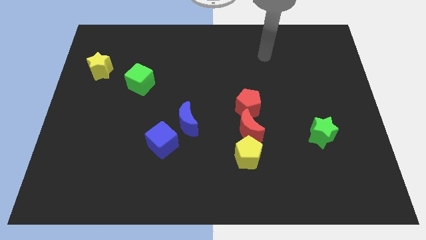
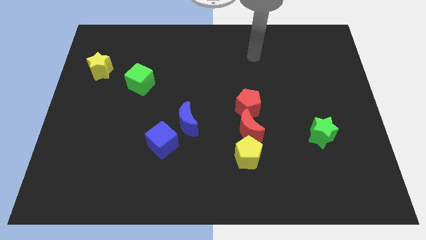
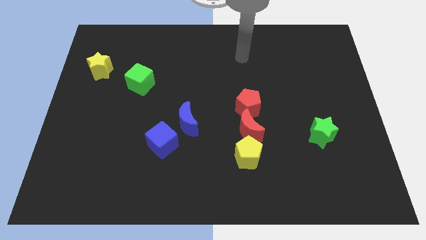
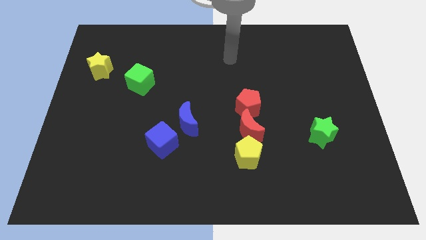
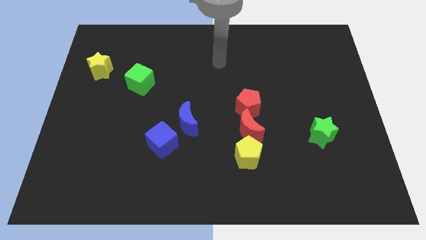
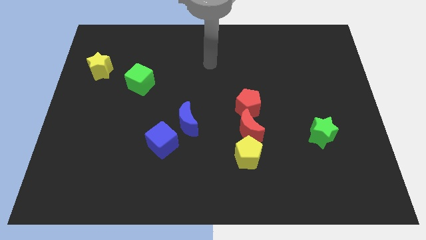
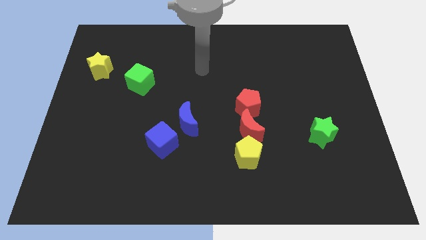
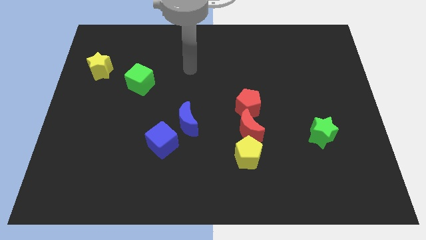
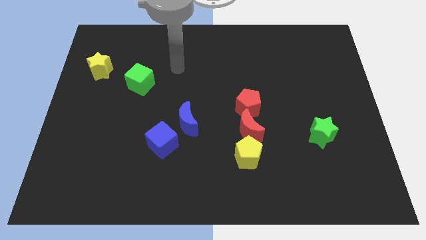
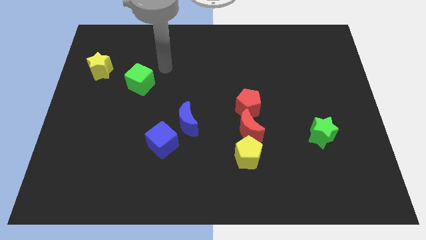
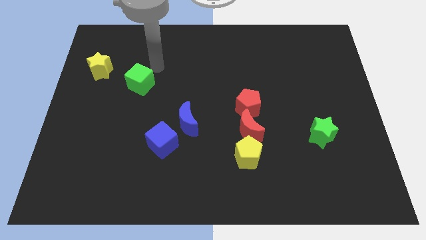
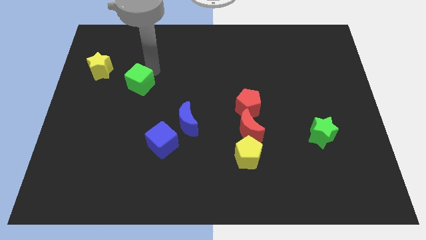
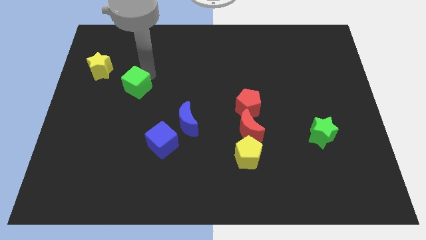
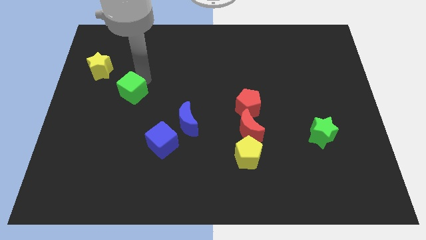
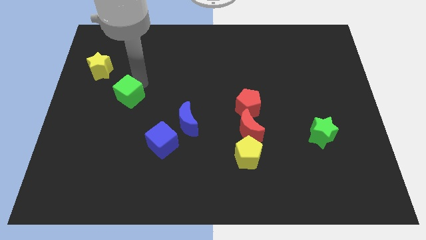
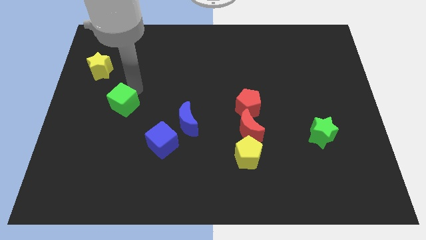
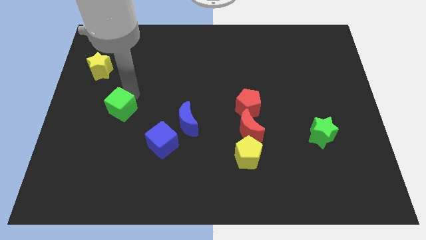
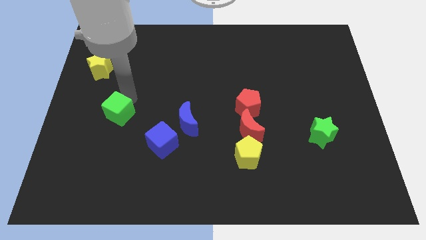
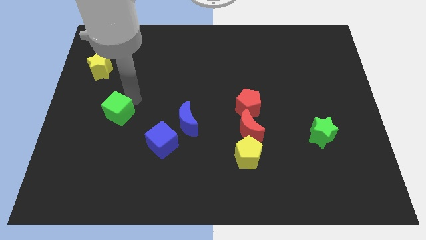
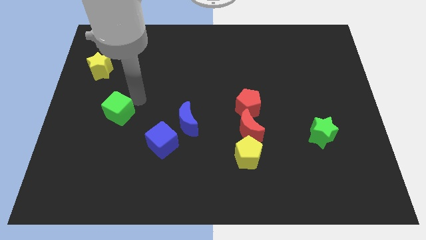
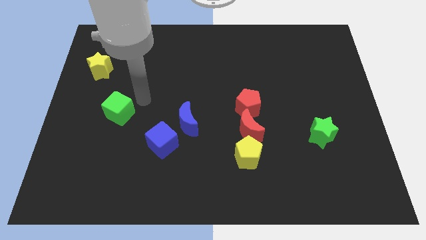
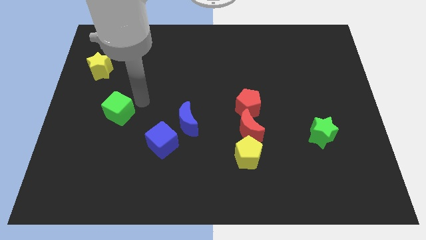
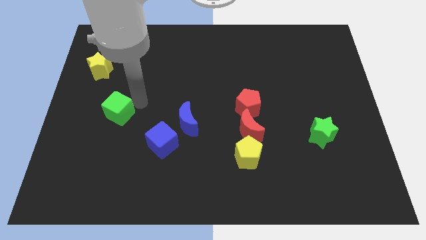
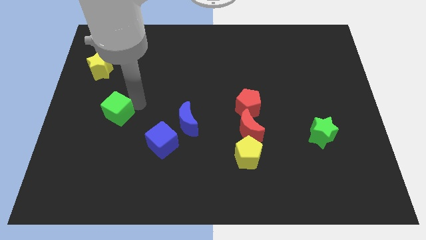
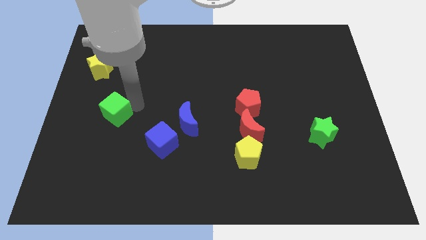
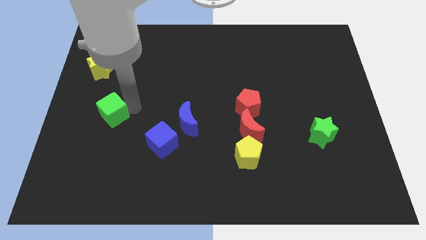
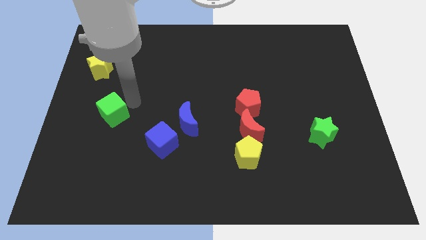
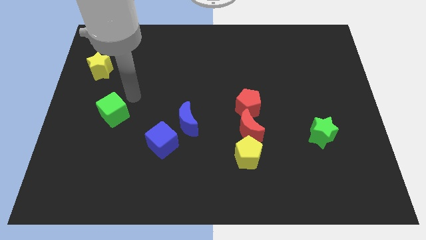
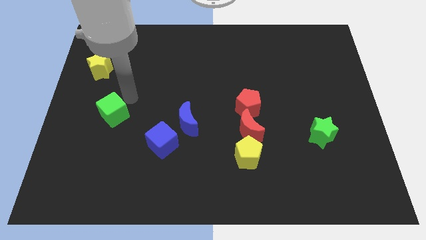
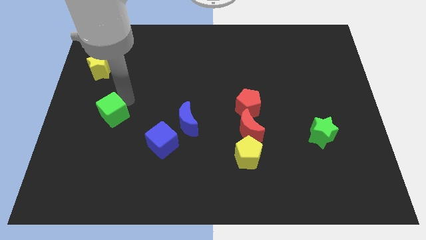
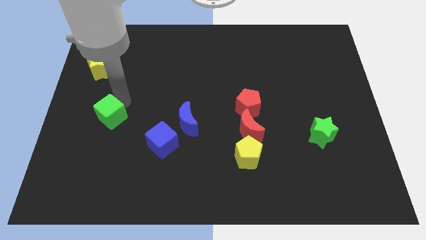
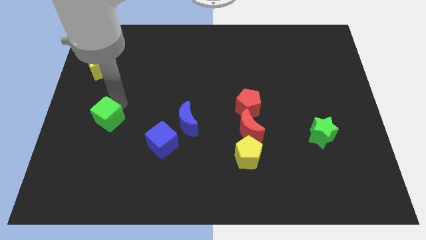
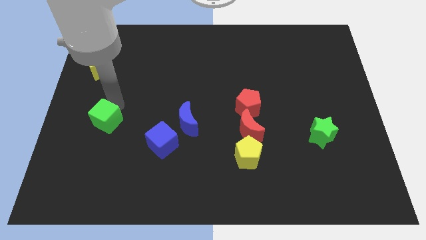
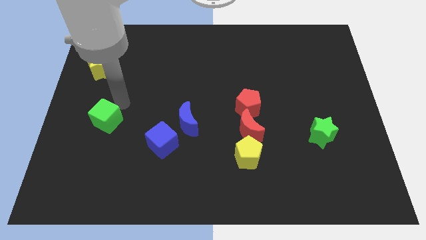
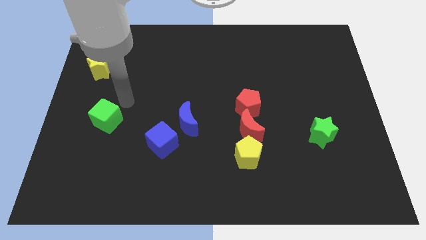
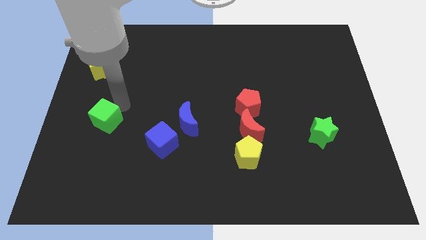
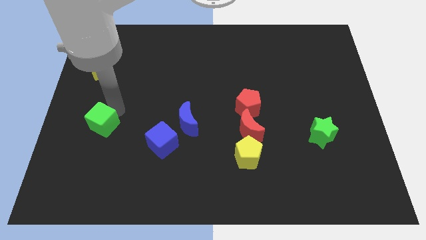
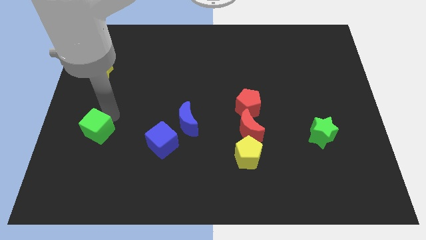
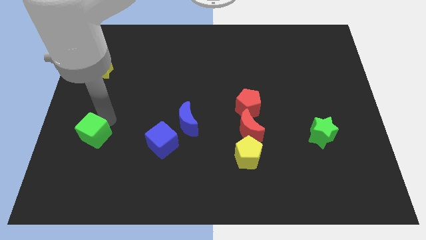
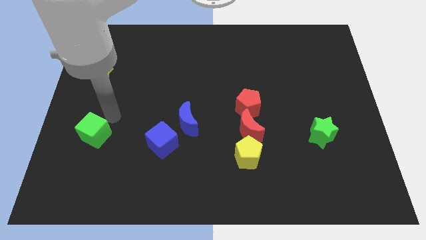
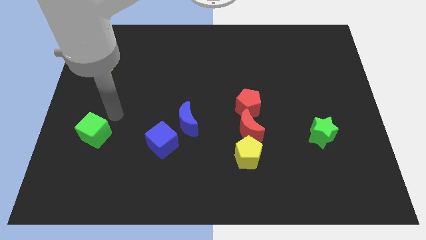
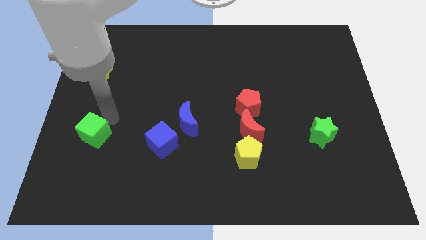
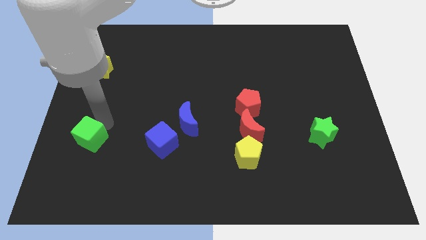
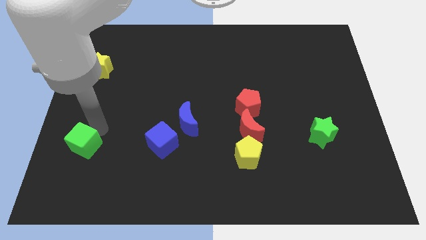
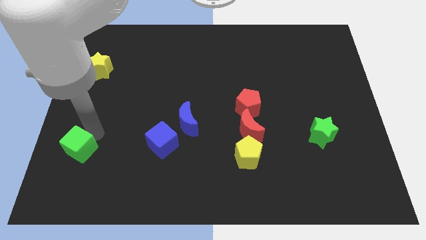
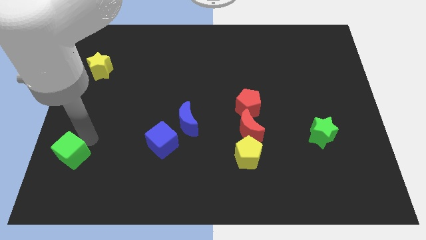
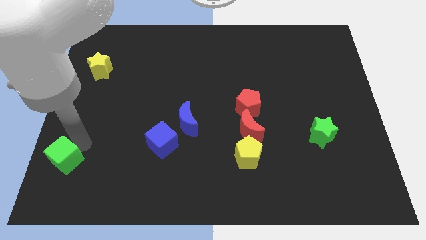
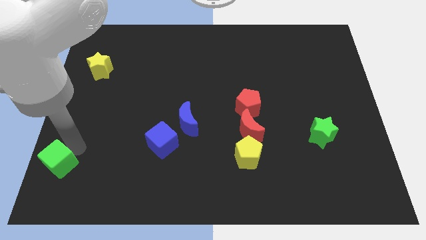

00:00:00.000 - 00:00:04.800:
push the green cube to the bottom left

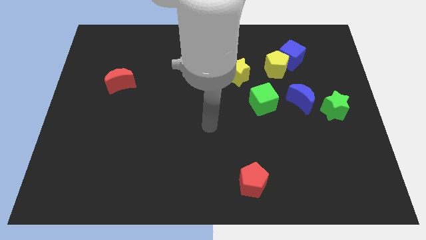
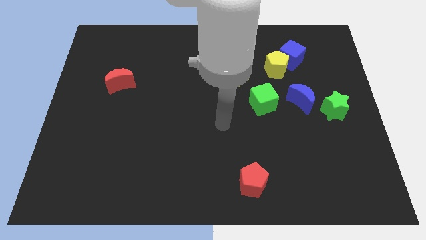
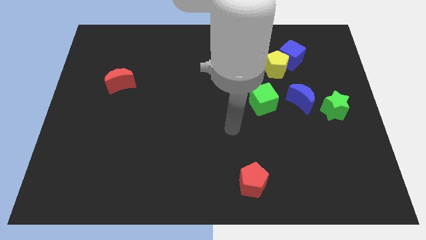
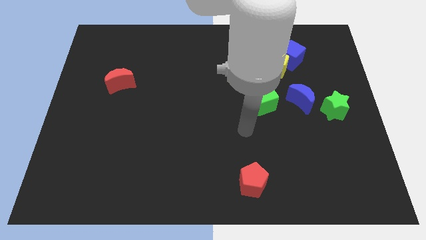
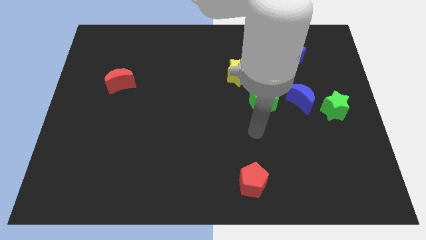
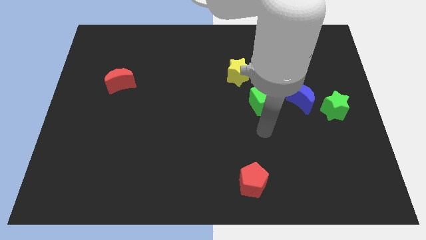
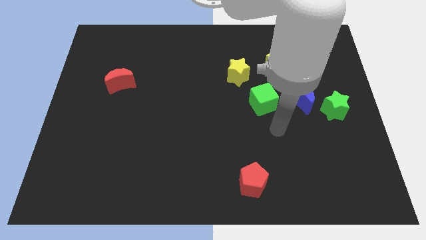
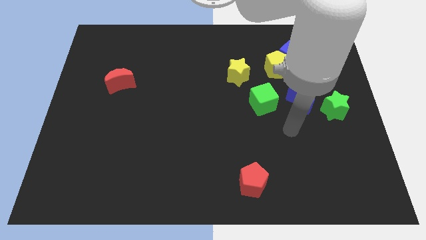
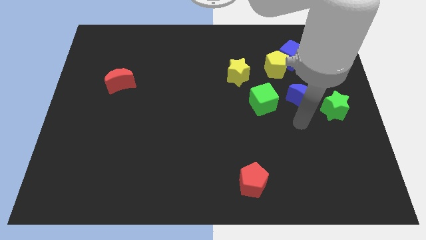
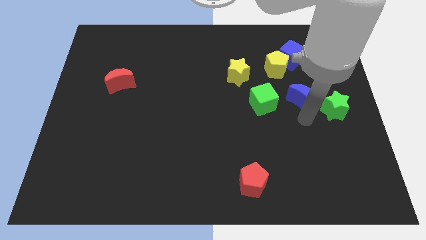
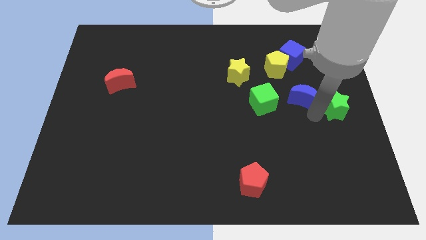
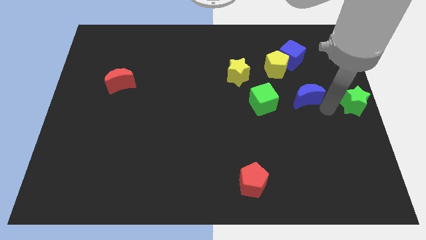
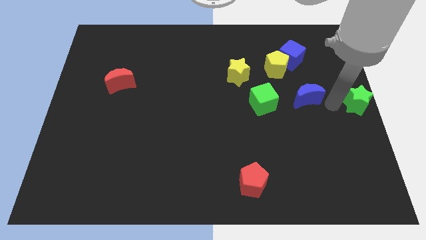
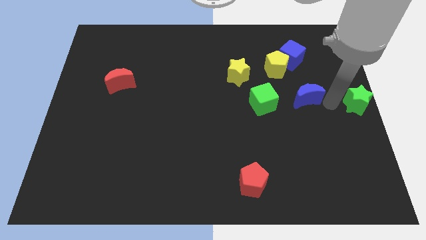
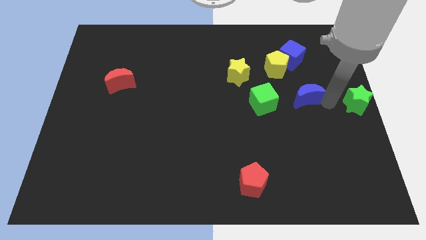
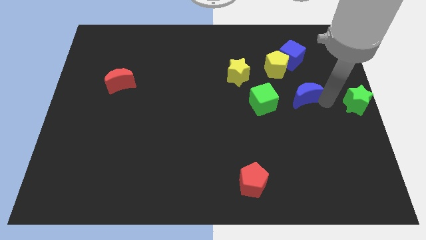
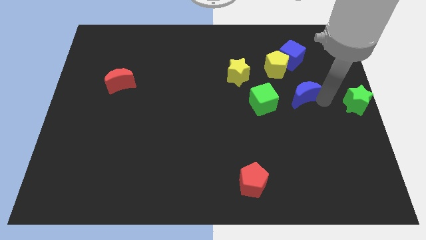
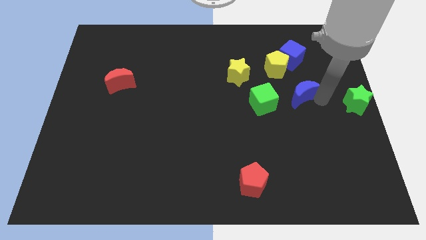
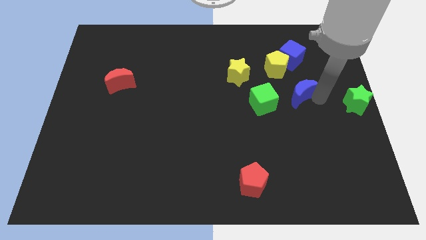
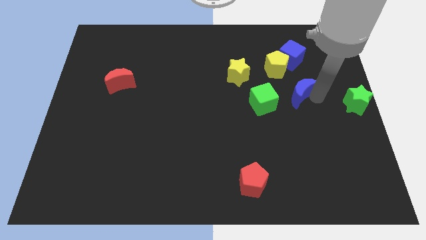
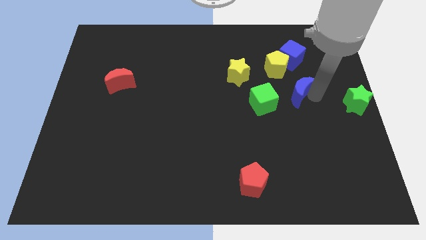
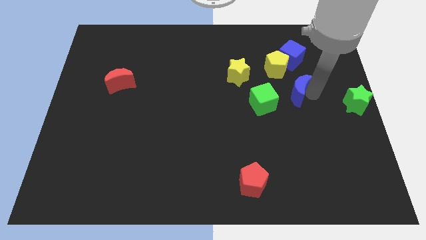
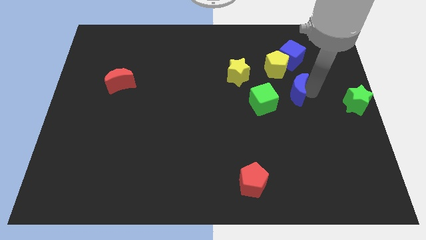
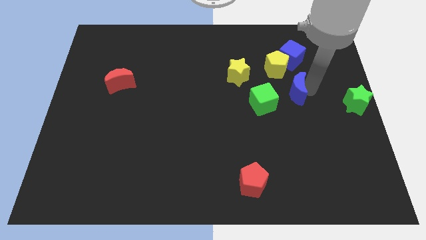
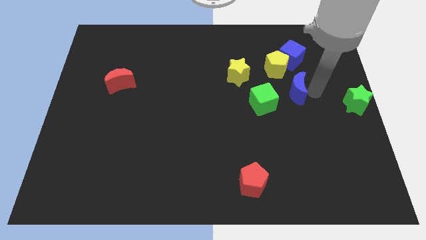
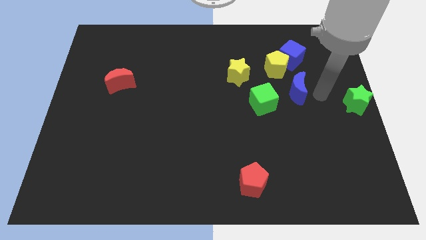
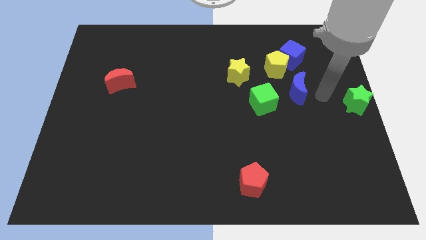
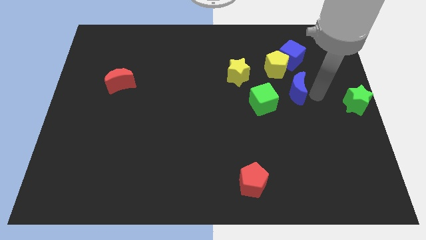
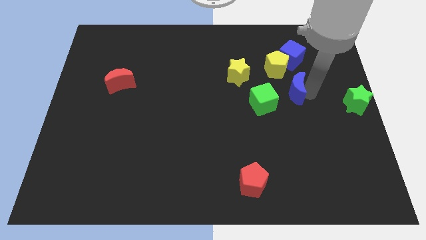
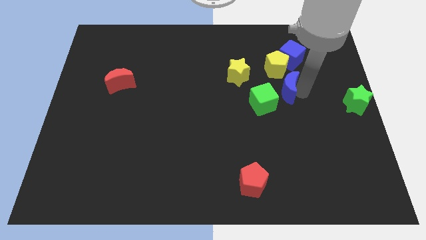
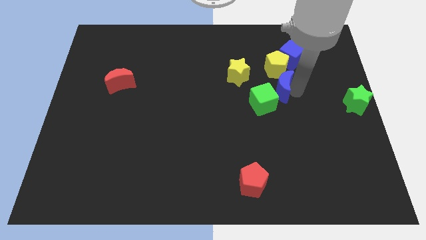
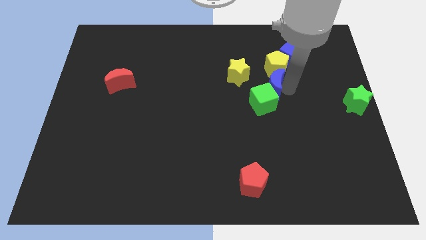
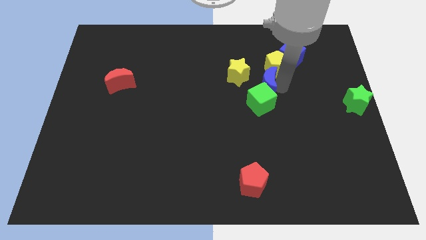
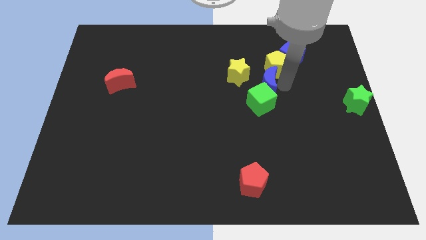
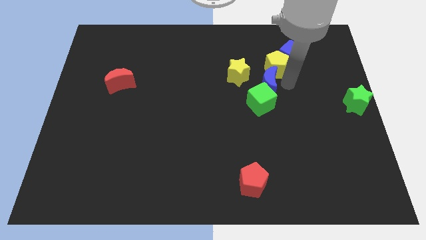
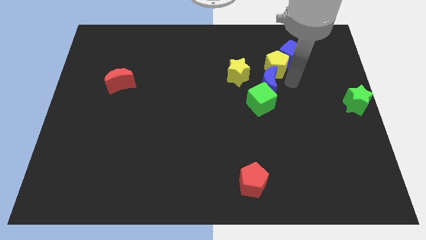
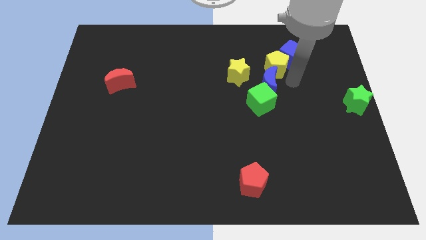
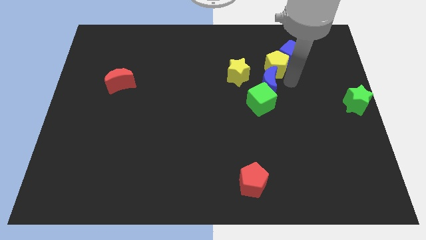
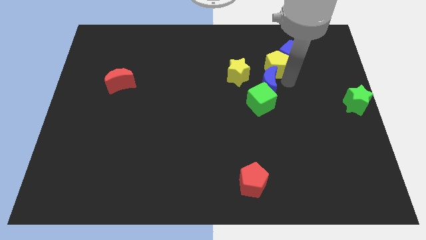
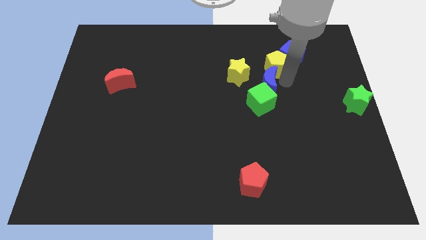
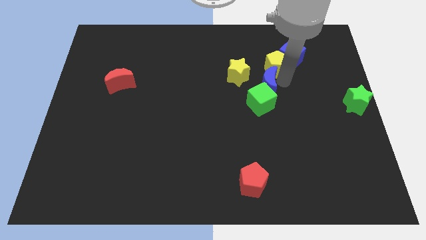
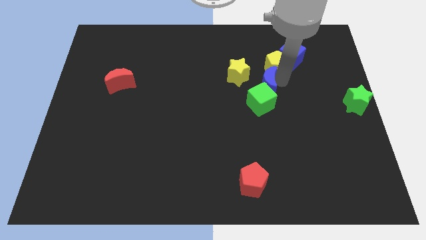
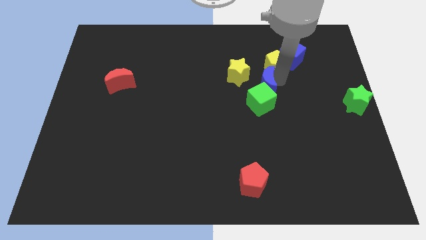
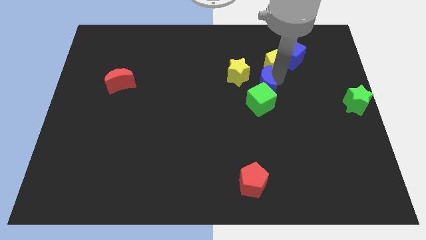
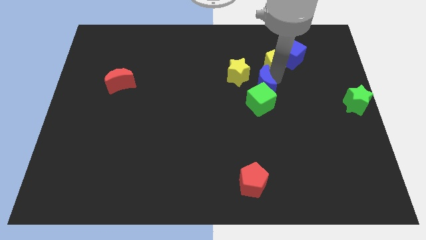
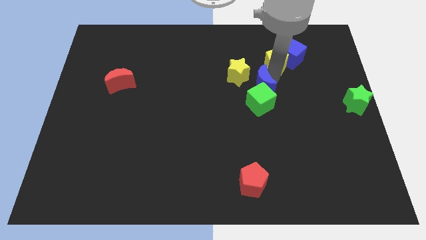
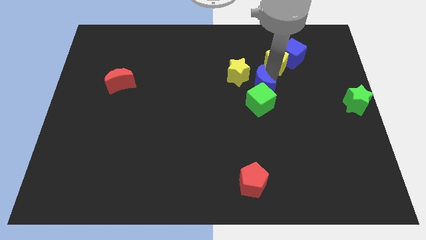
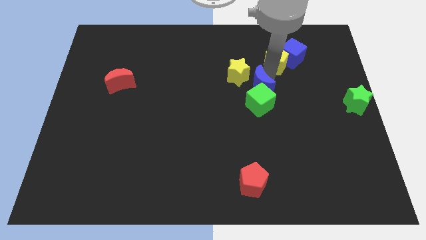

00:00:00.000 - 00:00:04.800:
move the blue moon to the center
